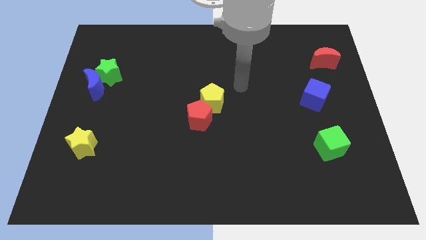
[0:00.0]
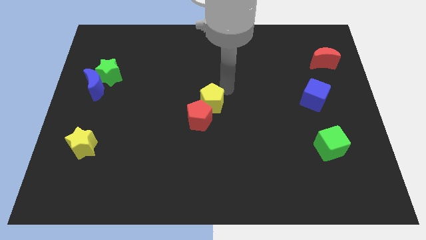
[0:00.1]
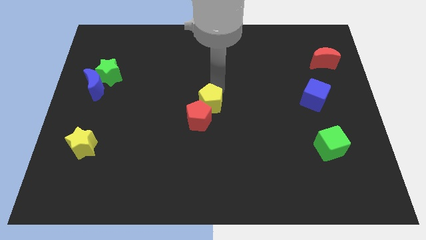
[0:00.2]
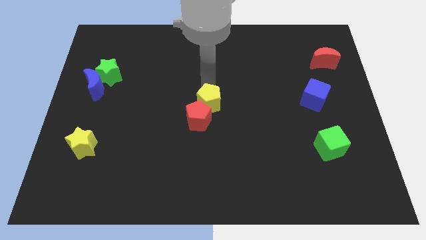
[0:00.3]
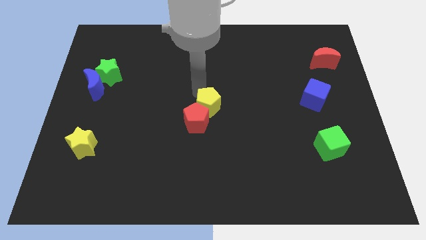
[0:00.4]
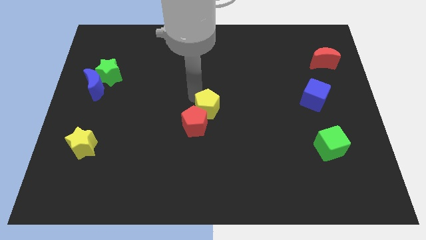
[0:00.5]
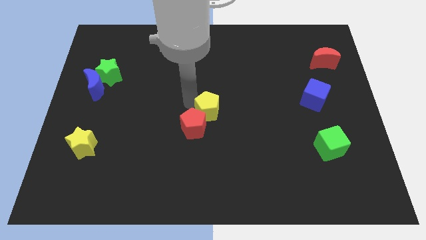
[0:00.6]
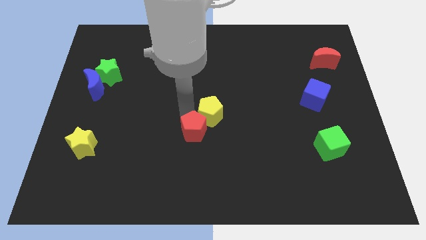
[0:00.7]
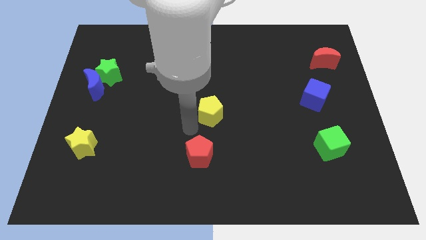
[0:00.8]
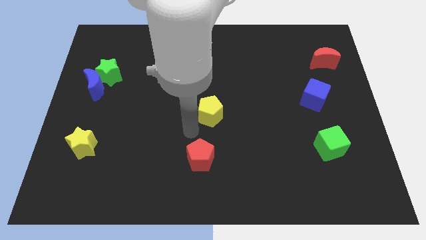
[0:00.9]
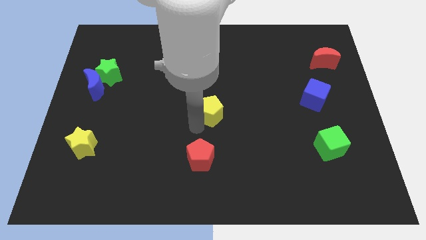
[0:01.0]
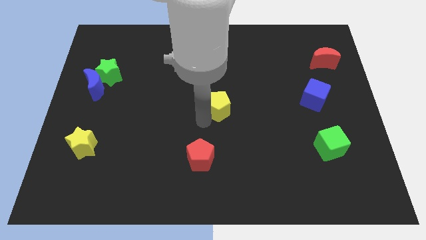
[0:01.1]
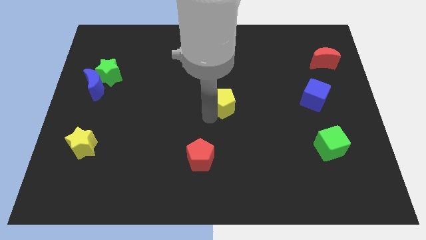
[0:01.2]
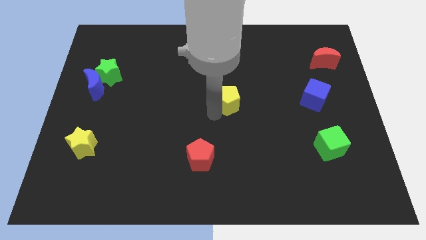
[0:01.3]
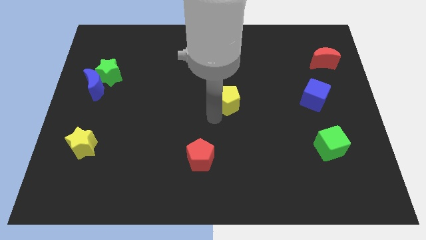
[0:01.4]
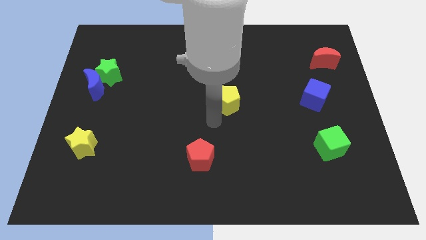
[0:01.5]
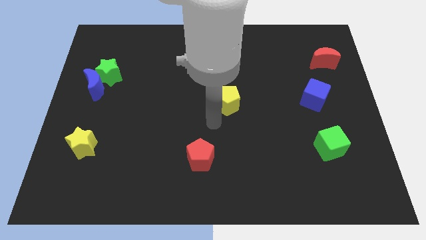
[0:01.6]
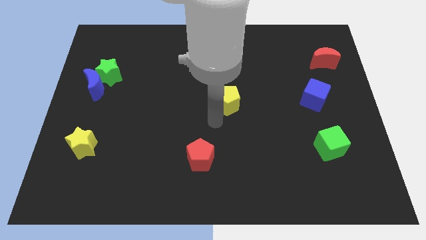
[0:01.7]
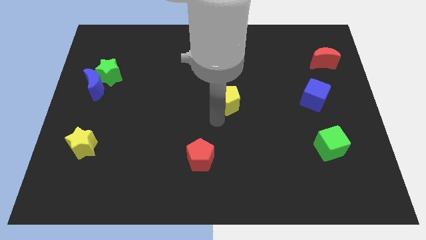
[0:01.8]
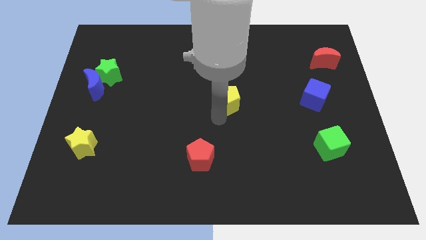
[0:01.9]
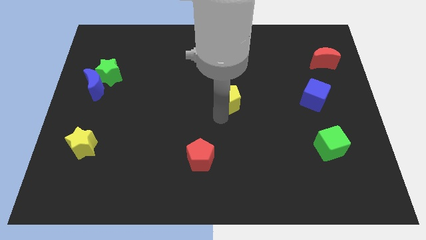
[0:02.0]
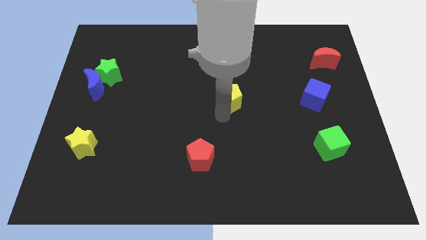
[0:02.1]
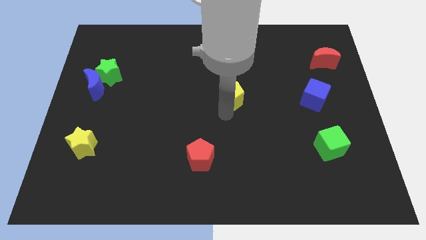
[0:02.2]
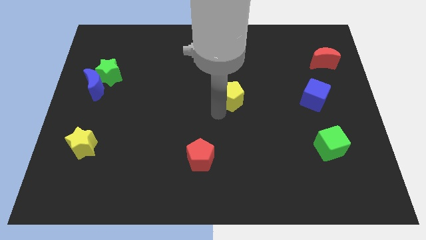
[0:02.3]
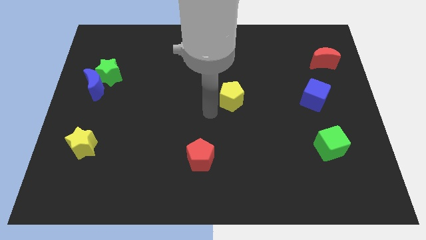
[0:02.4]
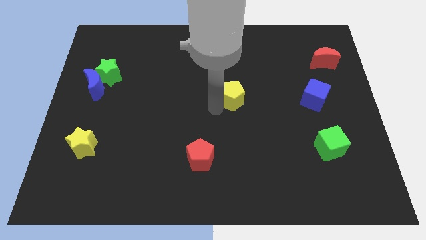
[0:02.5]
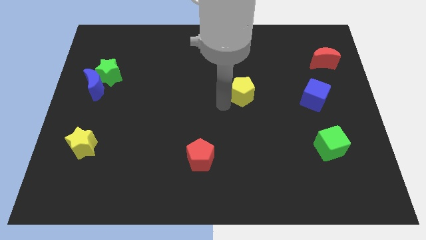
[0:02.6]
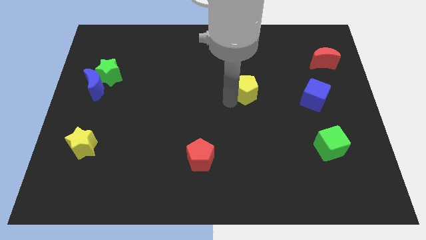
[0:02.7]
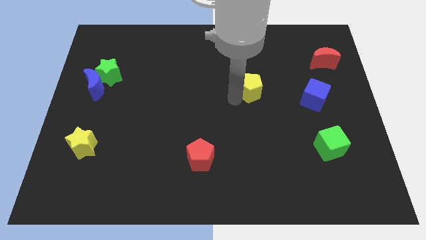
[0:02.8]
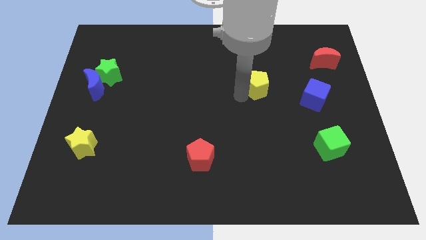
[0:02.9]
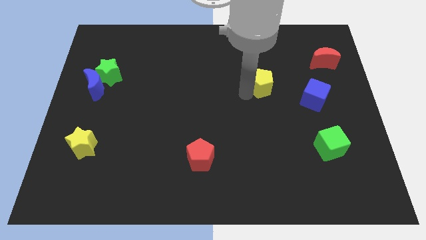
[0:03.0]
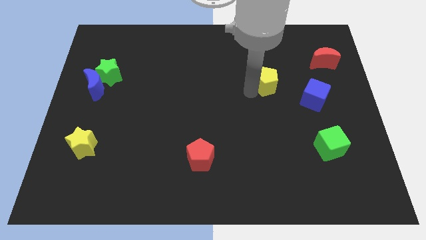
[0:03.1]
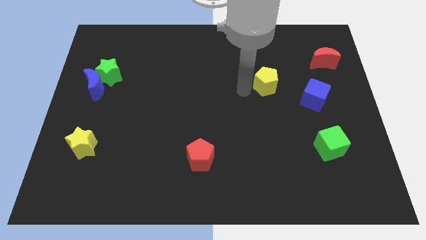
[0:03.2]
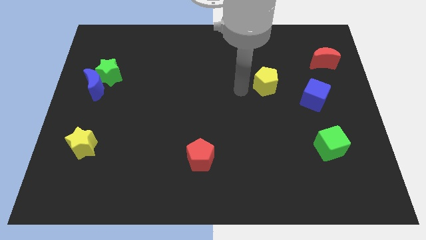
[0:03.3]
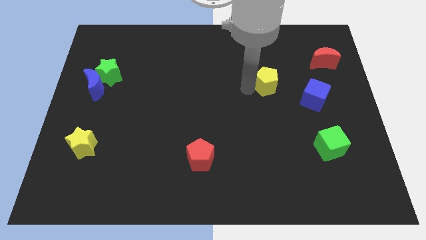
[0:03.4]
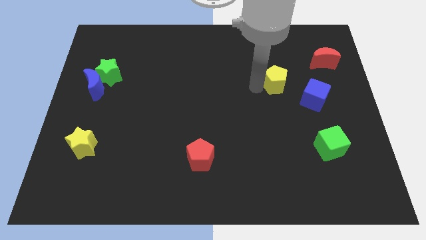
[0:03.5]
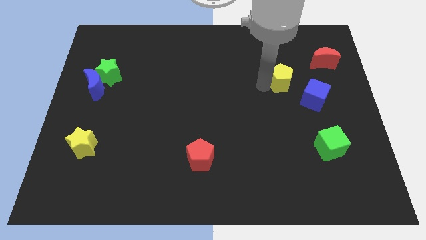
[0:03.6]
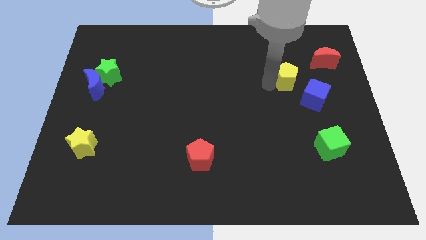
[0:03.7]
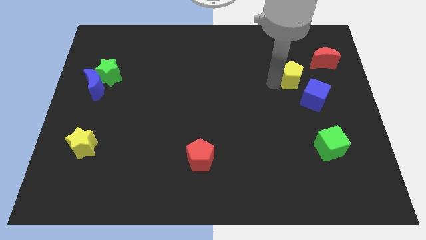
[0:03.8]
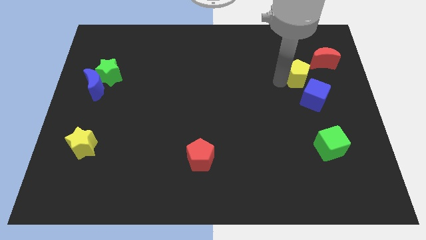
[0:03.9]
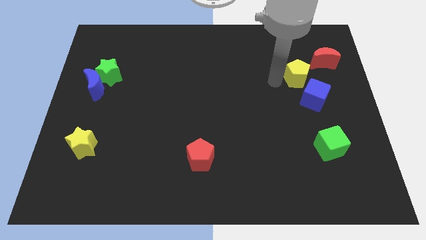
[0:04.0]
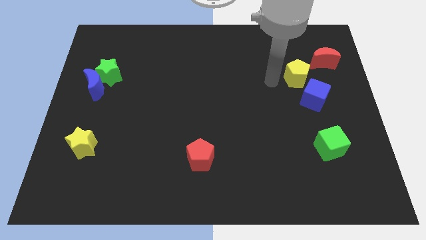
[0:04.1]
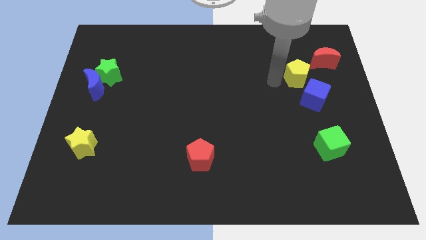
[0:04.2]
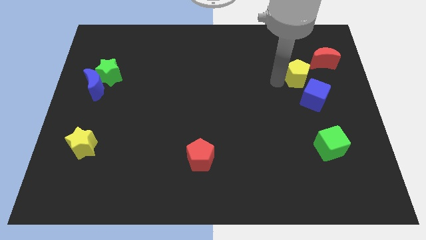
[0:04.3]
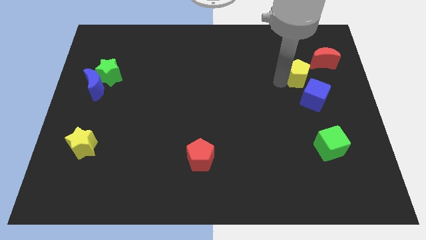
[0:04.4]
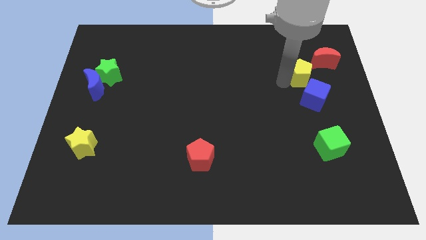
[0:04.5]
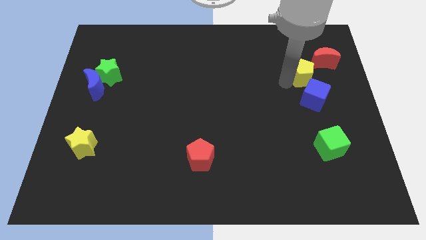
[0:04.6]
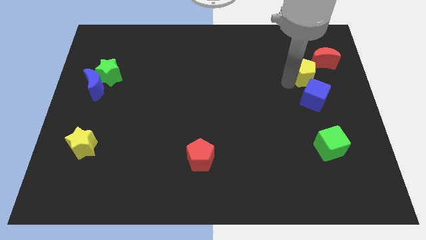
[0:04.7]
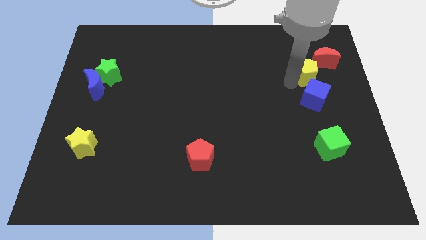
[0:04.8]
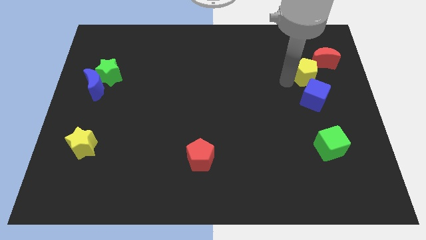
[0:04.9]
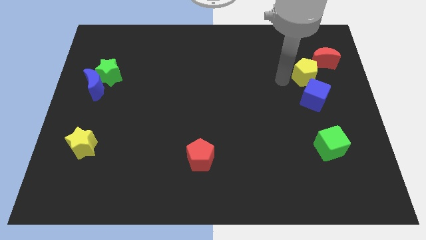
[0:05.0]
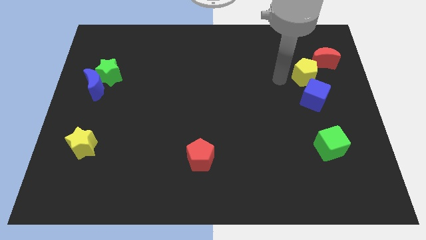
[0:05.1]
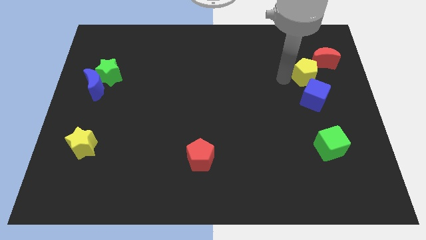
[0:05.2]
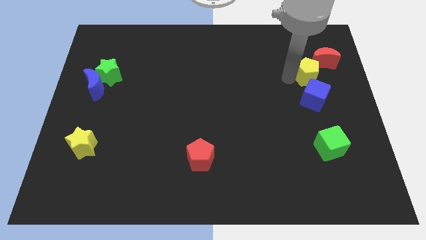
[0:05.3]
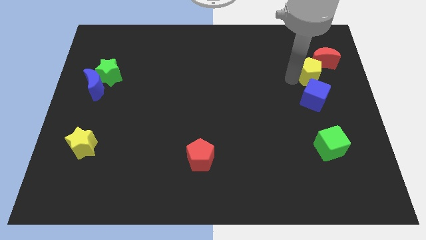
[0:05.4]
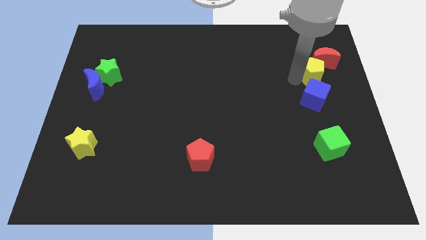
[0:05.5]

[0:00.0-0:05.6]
put the yellow pentagon next to the red moon

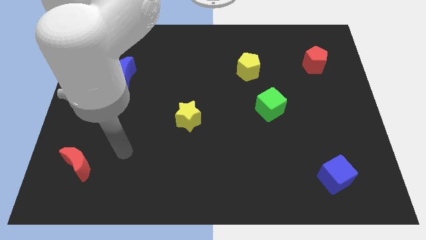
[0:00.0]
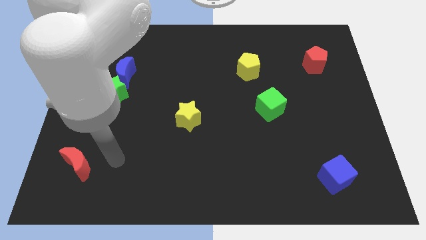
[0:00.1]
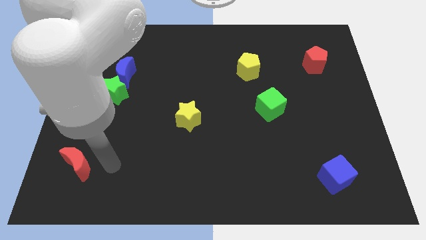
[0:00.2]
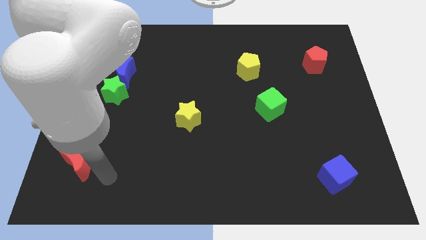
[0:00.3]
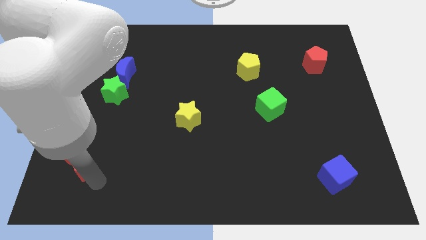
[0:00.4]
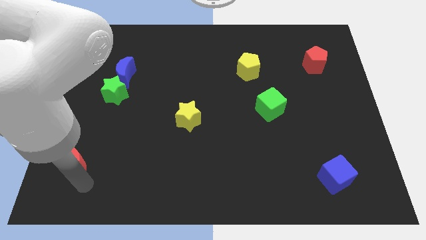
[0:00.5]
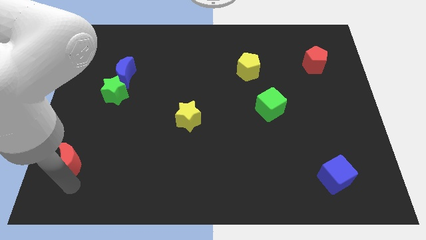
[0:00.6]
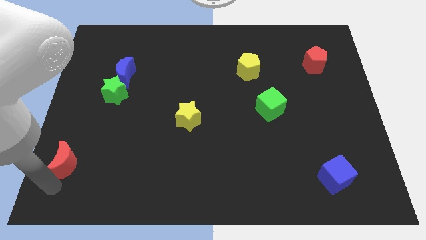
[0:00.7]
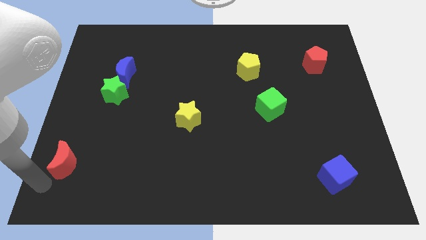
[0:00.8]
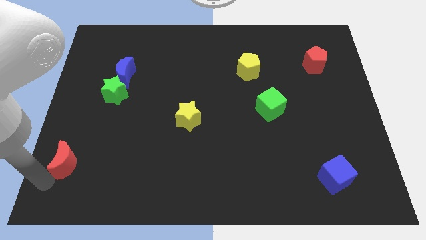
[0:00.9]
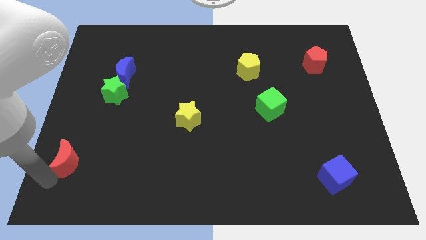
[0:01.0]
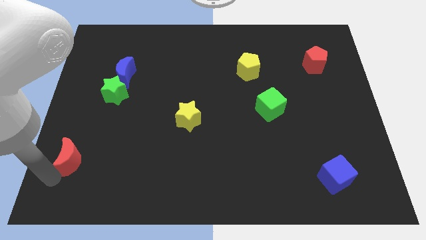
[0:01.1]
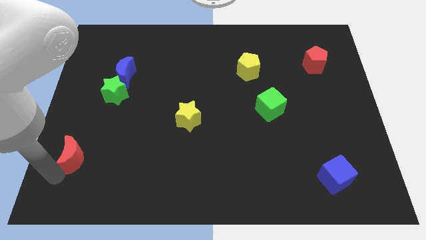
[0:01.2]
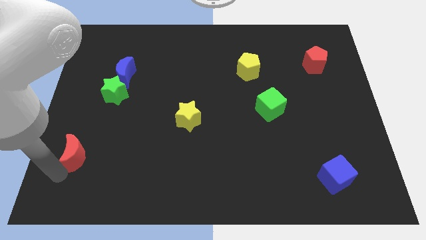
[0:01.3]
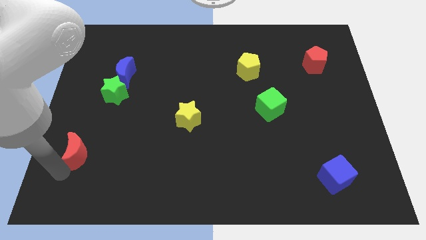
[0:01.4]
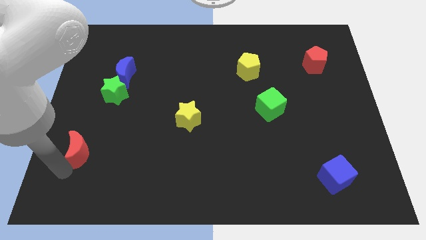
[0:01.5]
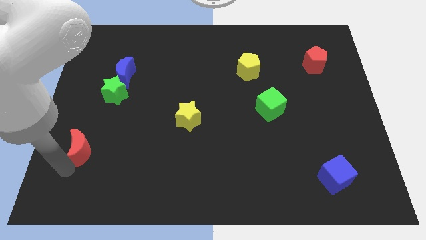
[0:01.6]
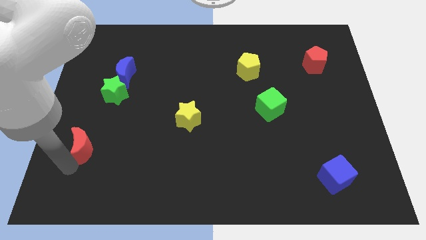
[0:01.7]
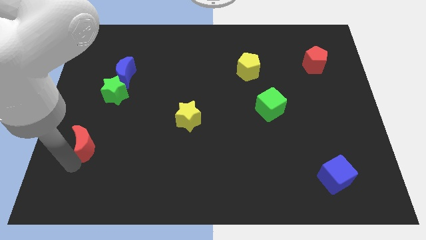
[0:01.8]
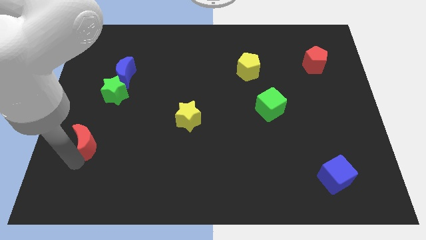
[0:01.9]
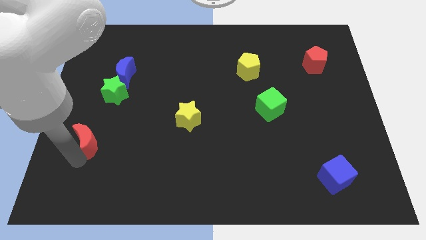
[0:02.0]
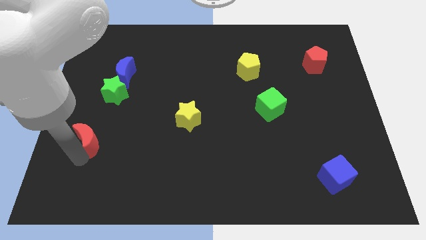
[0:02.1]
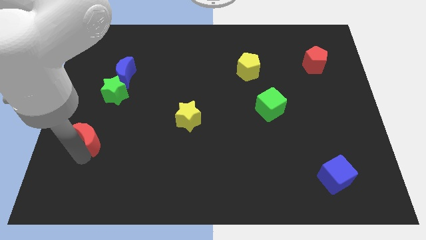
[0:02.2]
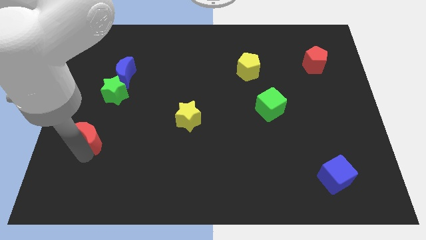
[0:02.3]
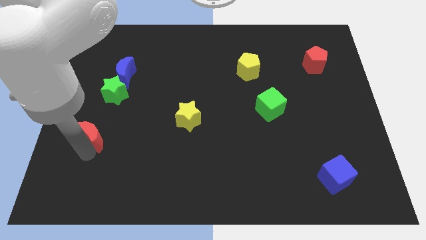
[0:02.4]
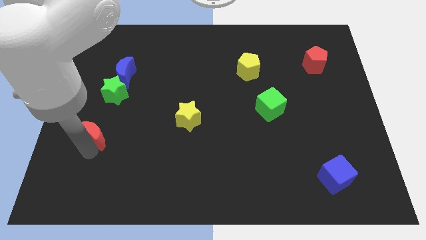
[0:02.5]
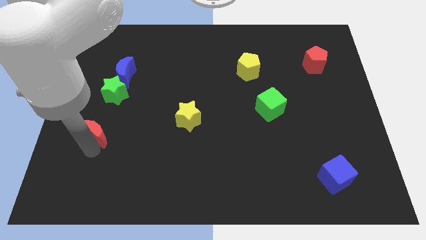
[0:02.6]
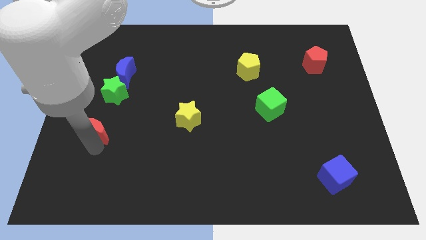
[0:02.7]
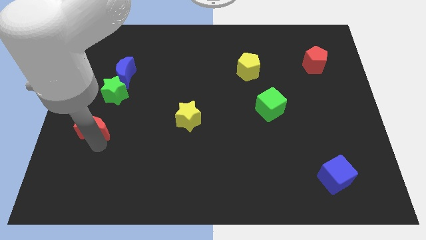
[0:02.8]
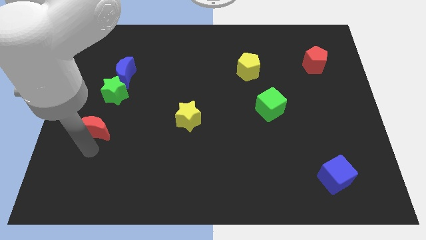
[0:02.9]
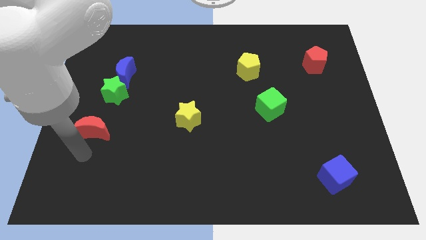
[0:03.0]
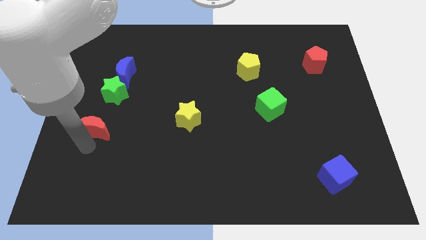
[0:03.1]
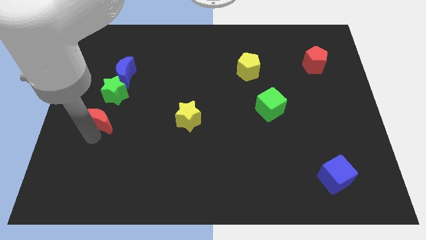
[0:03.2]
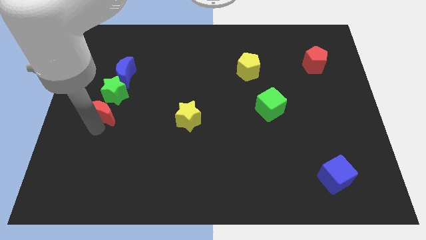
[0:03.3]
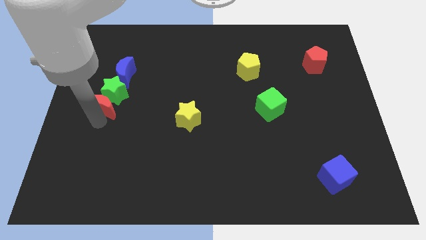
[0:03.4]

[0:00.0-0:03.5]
push the red moon to the green star
